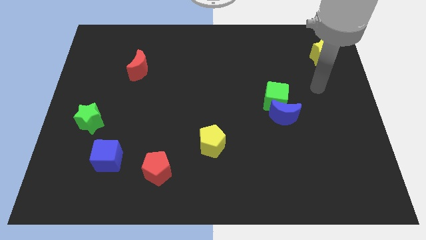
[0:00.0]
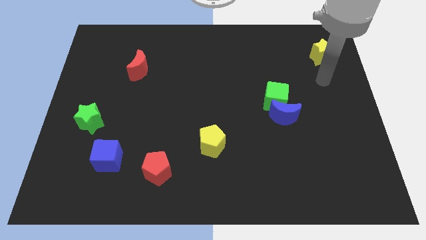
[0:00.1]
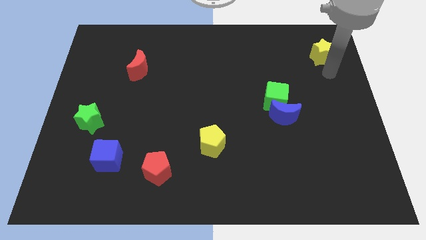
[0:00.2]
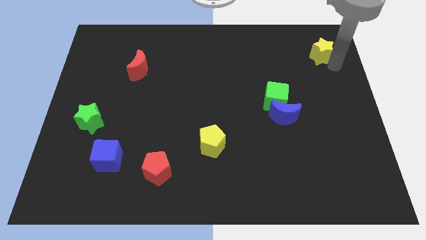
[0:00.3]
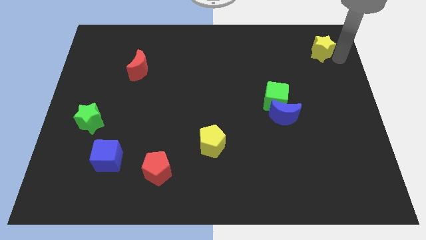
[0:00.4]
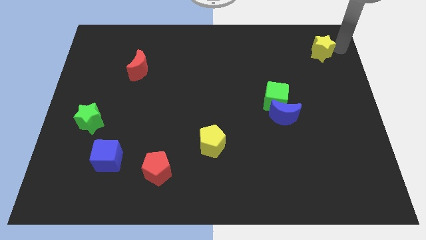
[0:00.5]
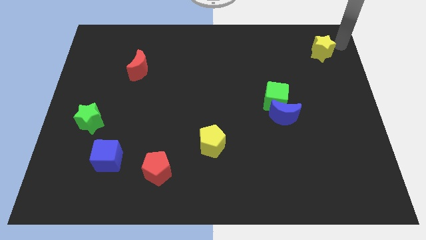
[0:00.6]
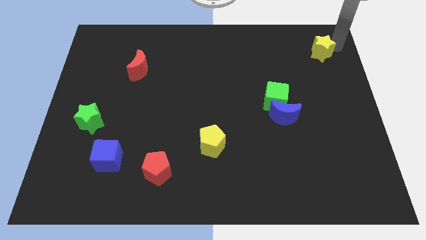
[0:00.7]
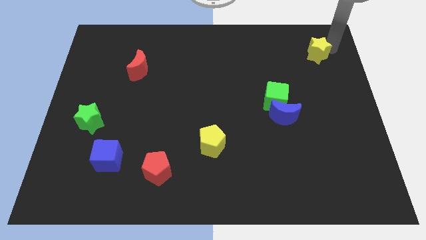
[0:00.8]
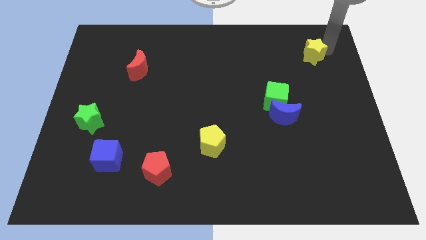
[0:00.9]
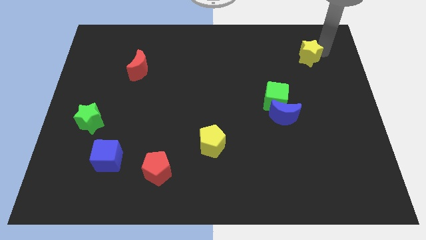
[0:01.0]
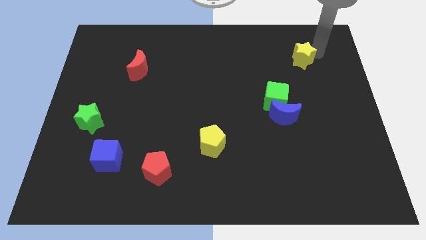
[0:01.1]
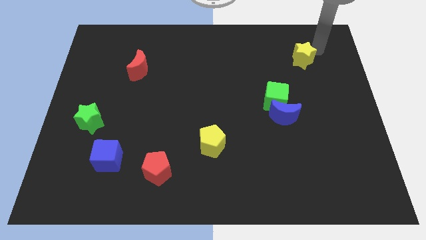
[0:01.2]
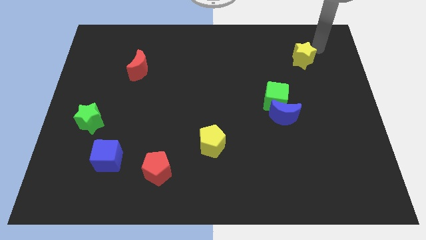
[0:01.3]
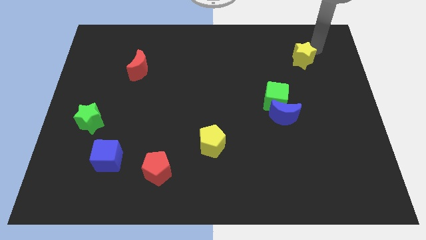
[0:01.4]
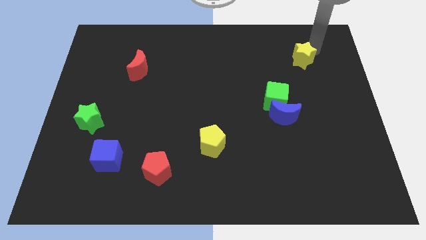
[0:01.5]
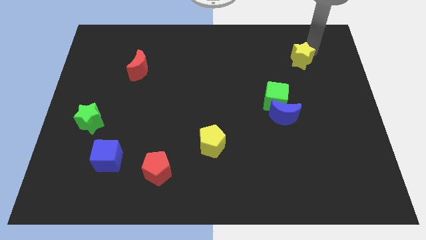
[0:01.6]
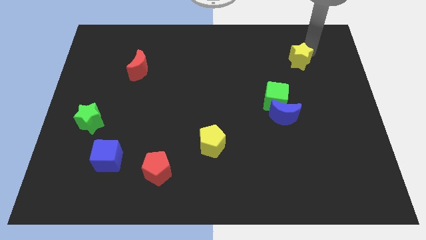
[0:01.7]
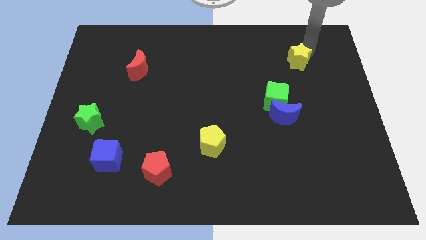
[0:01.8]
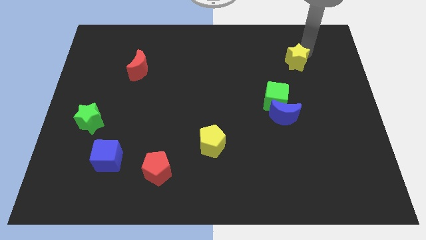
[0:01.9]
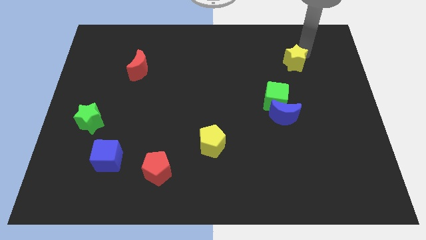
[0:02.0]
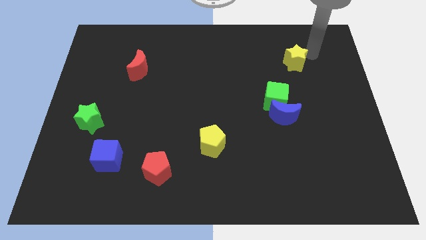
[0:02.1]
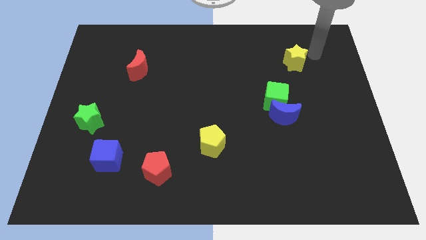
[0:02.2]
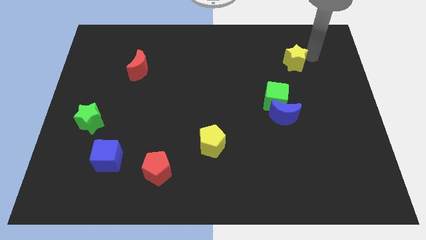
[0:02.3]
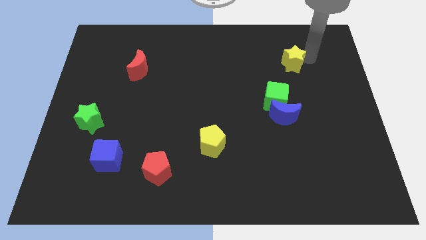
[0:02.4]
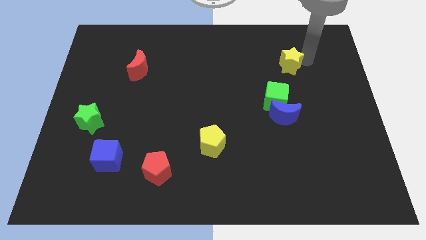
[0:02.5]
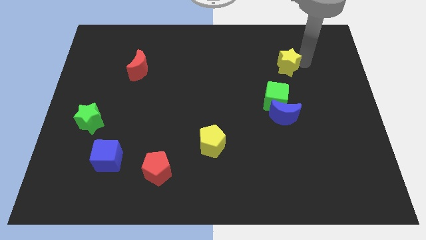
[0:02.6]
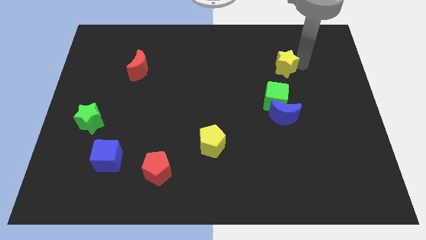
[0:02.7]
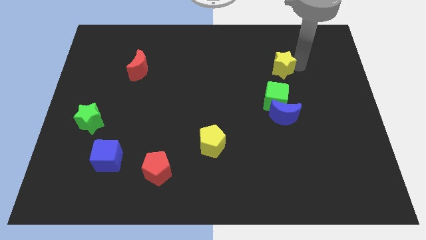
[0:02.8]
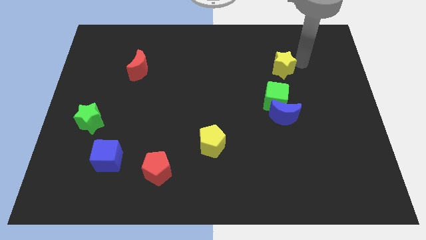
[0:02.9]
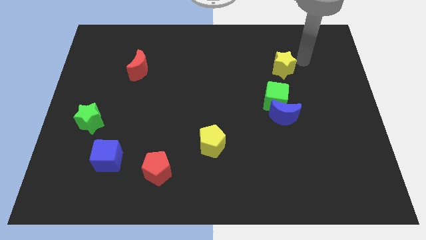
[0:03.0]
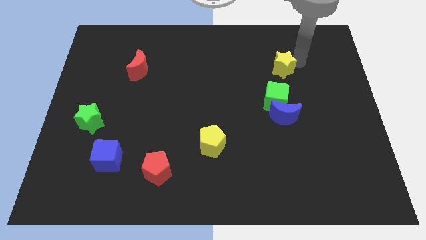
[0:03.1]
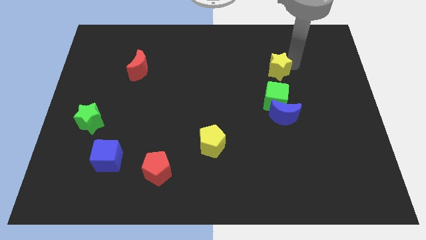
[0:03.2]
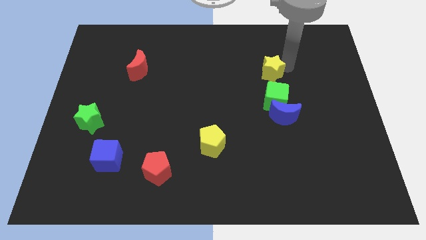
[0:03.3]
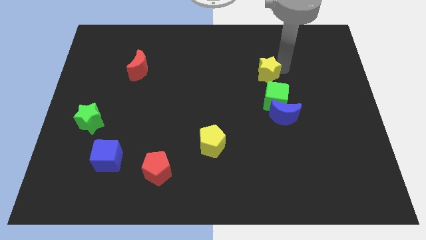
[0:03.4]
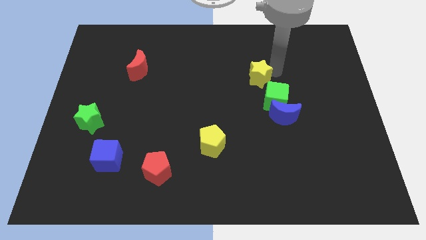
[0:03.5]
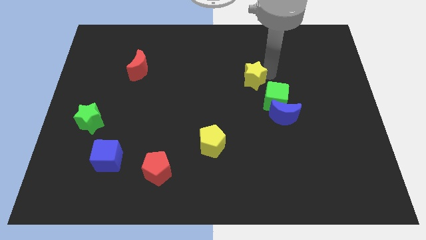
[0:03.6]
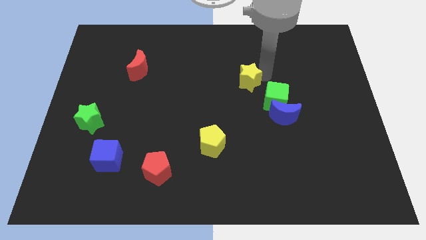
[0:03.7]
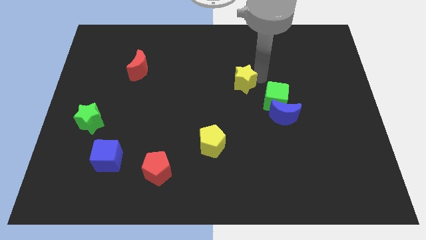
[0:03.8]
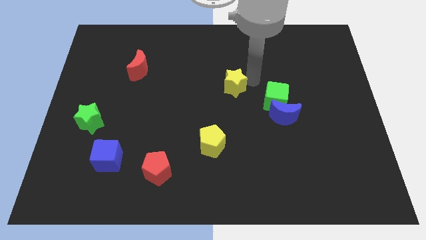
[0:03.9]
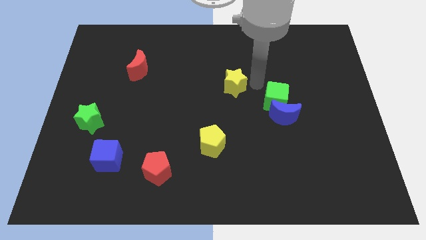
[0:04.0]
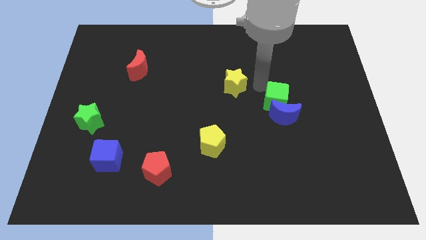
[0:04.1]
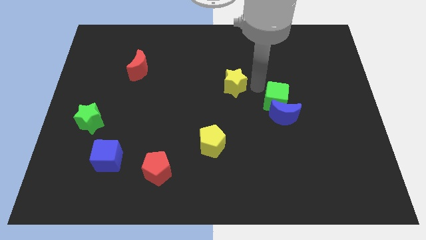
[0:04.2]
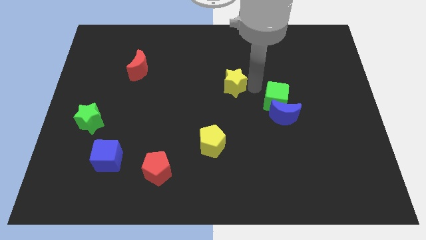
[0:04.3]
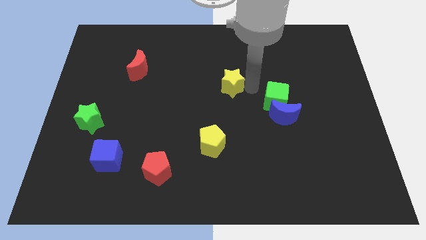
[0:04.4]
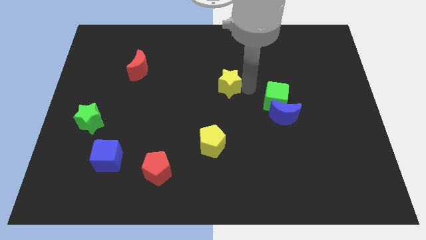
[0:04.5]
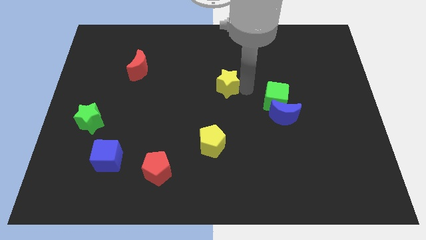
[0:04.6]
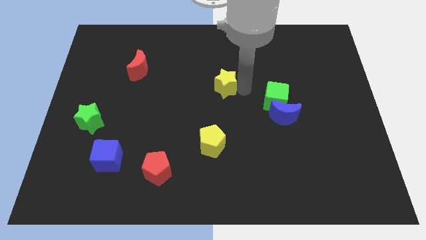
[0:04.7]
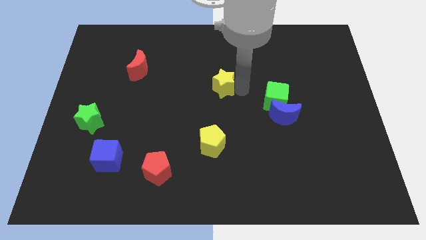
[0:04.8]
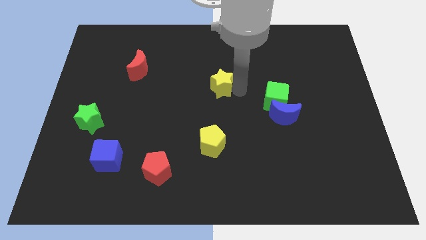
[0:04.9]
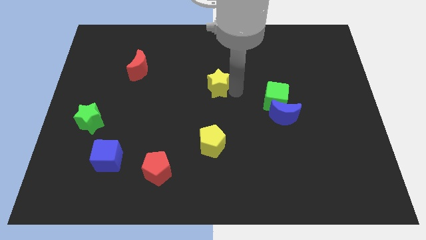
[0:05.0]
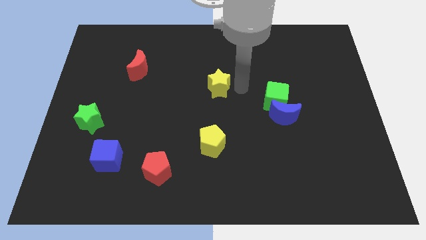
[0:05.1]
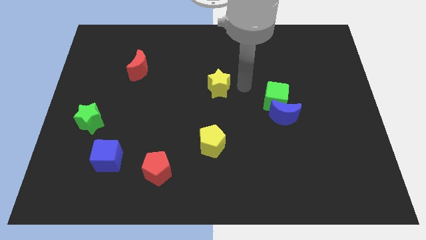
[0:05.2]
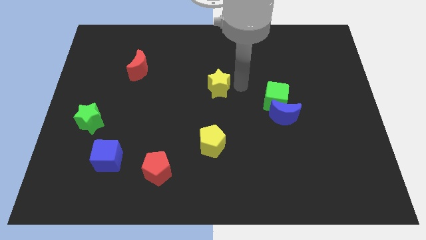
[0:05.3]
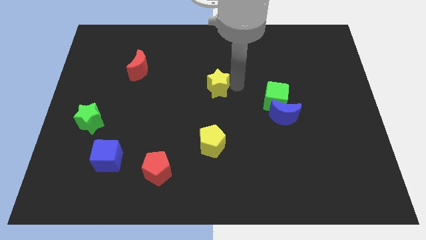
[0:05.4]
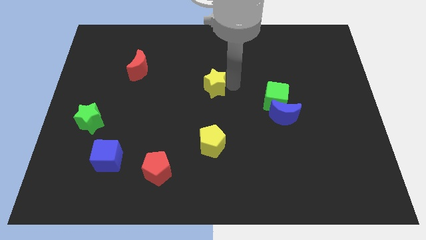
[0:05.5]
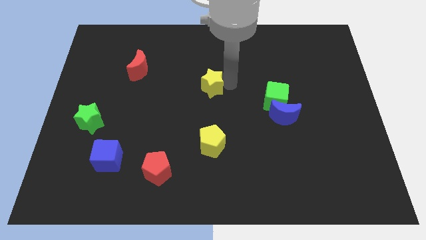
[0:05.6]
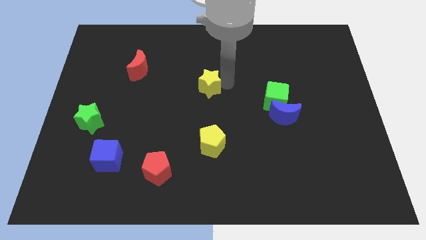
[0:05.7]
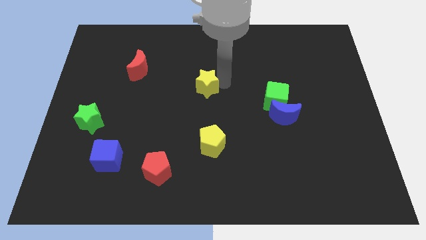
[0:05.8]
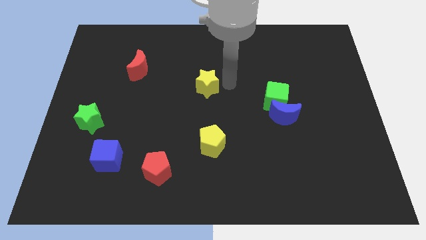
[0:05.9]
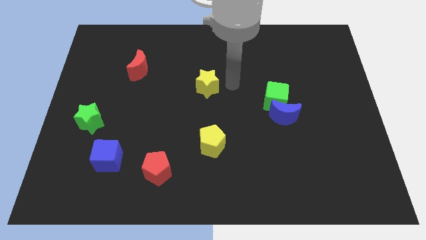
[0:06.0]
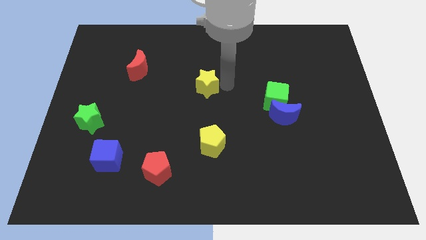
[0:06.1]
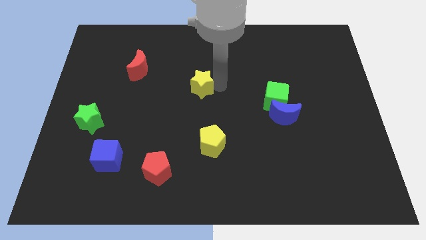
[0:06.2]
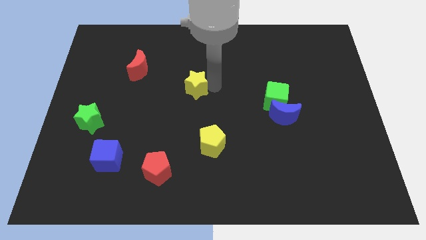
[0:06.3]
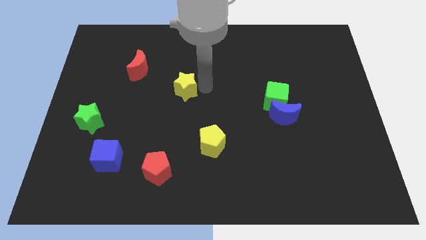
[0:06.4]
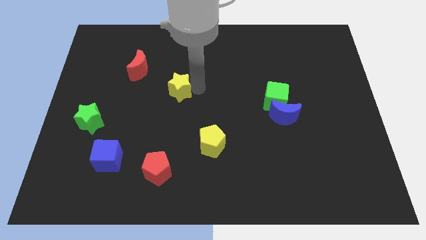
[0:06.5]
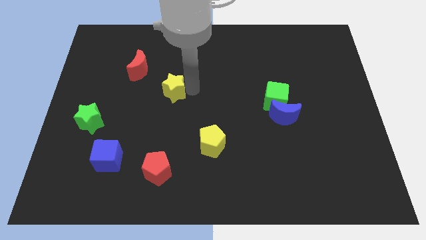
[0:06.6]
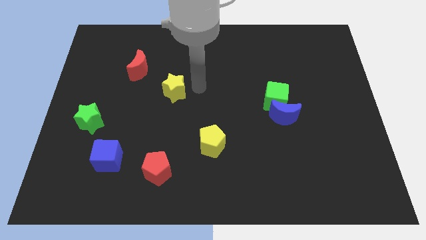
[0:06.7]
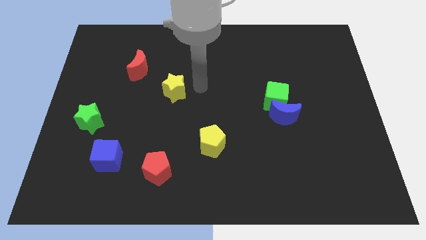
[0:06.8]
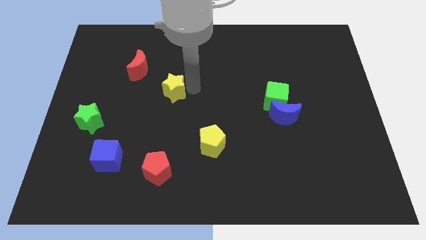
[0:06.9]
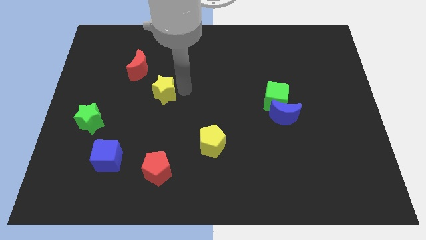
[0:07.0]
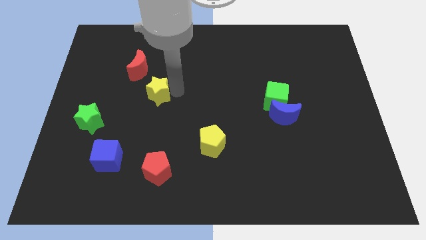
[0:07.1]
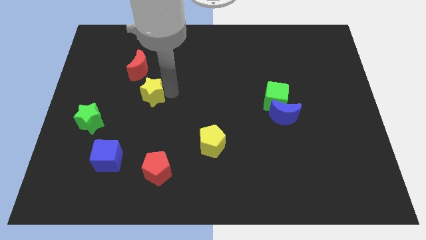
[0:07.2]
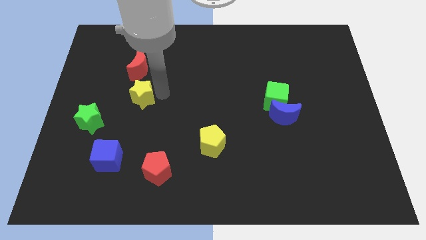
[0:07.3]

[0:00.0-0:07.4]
put the yellow star diagonally up and to the right of the green star

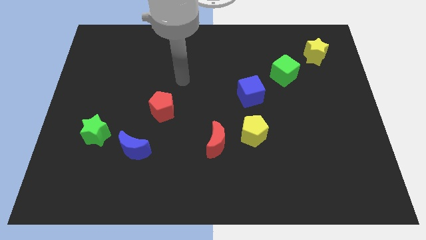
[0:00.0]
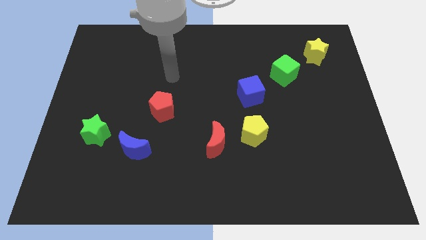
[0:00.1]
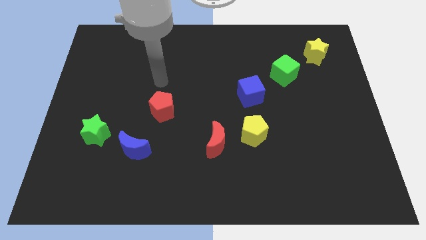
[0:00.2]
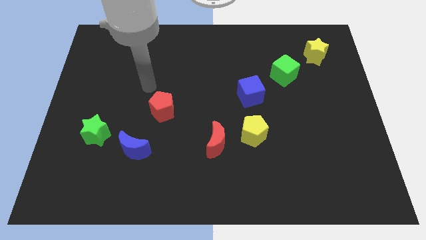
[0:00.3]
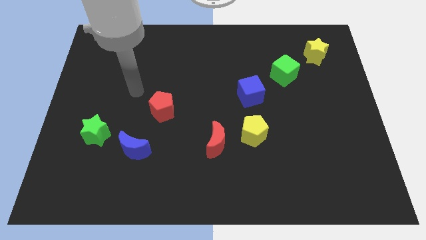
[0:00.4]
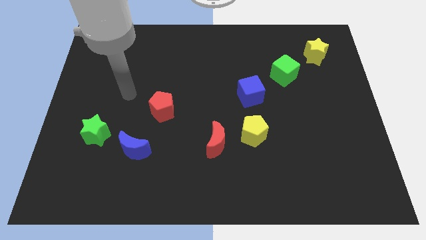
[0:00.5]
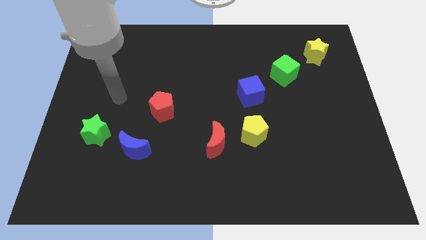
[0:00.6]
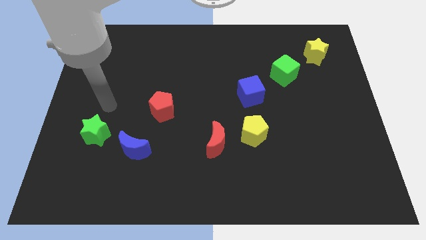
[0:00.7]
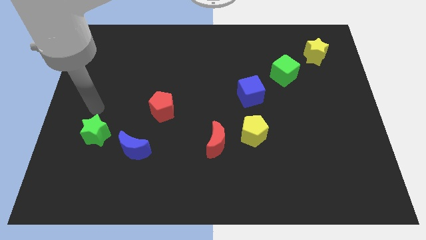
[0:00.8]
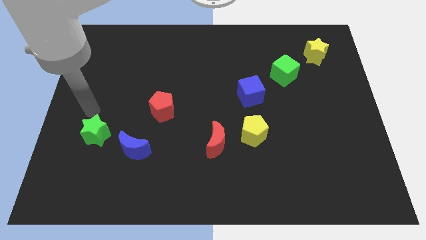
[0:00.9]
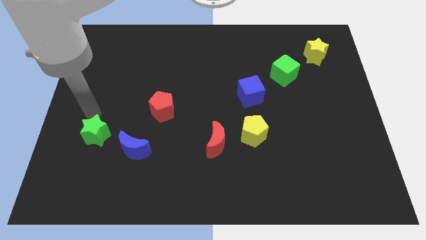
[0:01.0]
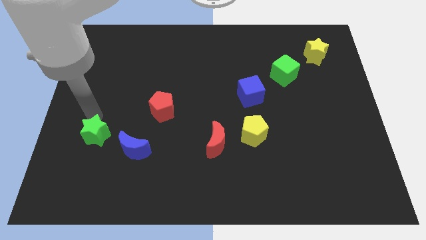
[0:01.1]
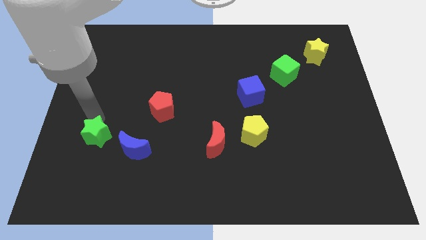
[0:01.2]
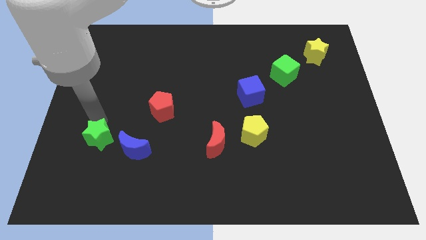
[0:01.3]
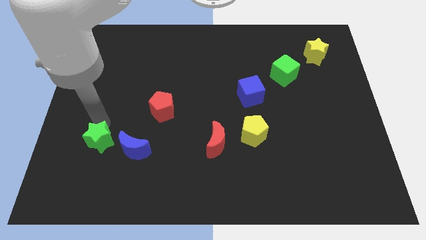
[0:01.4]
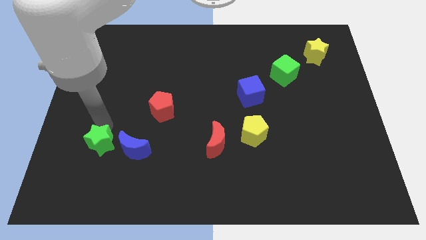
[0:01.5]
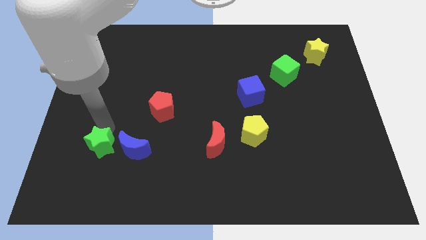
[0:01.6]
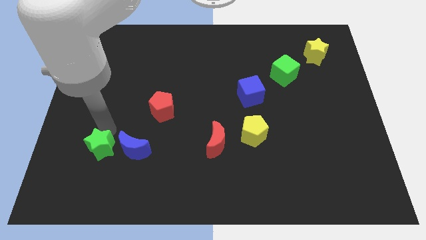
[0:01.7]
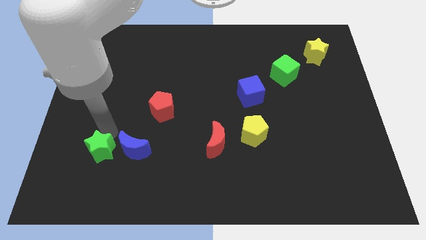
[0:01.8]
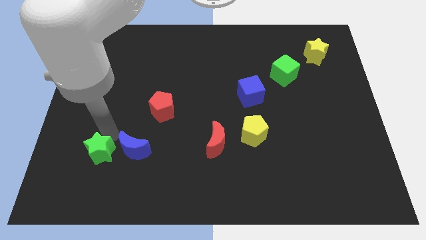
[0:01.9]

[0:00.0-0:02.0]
push the green star to the bottom left of the blue moon
